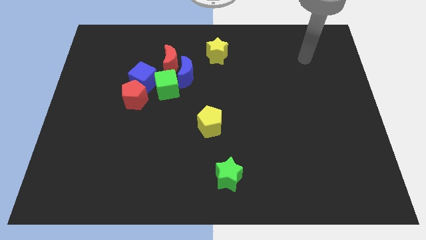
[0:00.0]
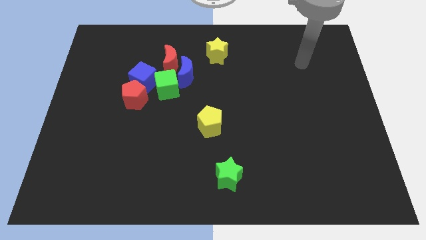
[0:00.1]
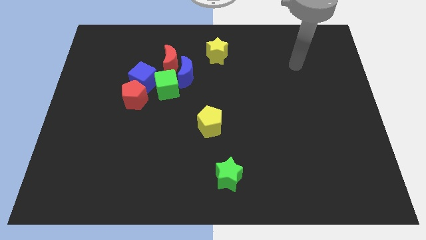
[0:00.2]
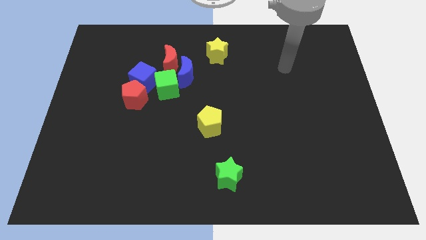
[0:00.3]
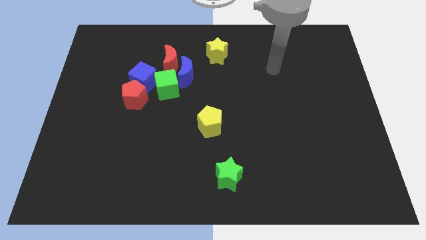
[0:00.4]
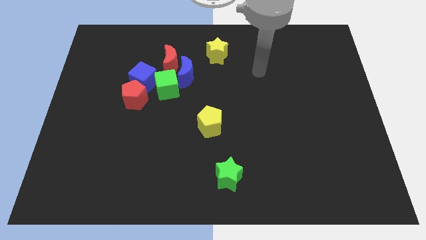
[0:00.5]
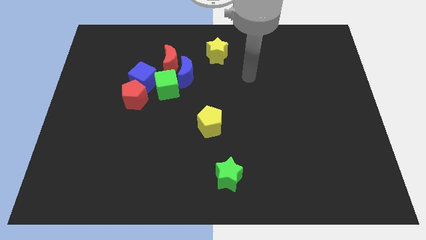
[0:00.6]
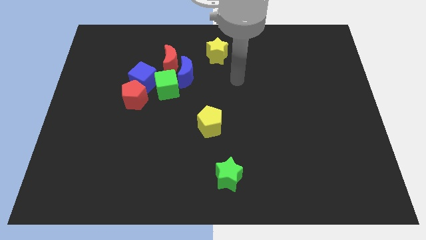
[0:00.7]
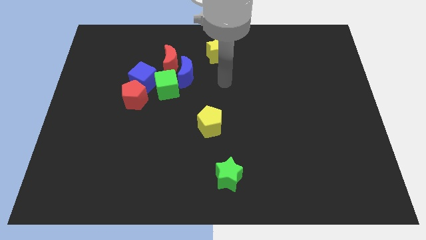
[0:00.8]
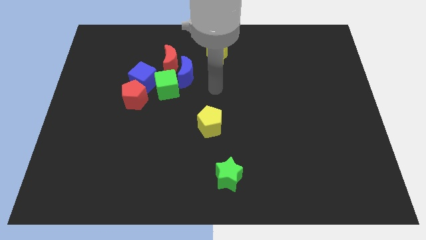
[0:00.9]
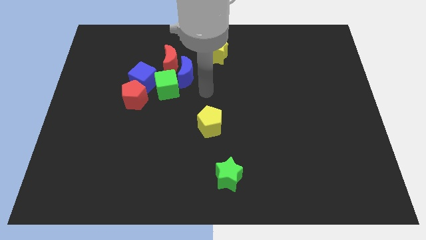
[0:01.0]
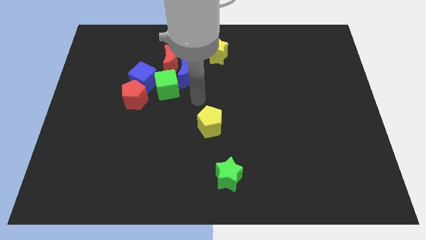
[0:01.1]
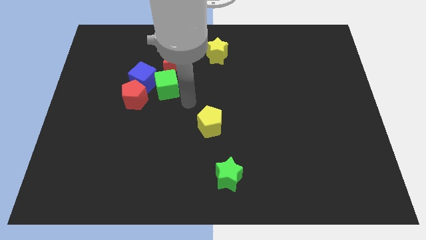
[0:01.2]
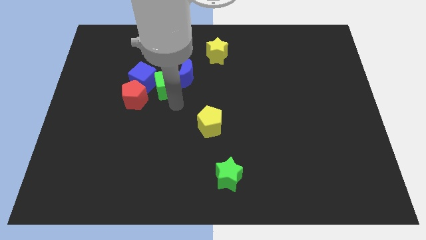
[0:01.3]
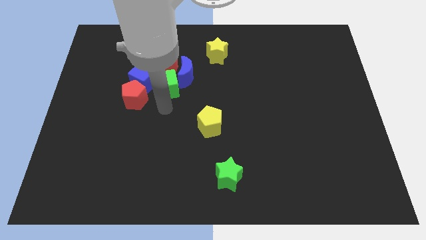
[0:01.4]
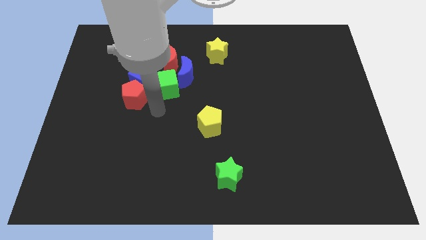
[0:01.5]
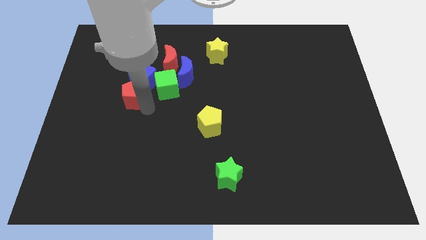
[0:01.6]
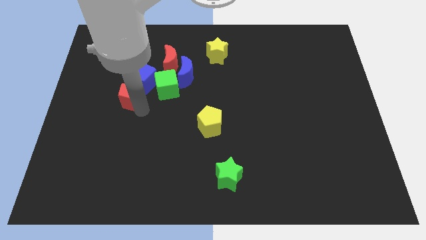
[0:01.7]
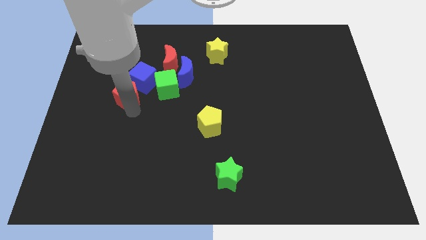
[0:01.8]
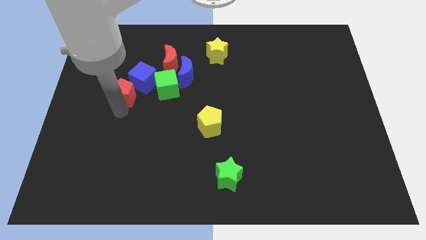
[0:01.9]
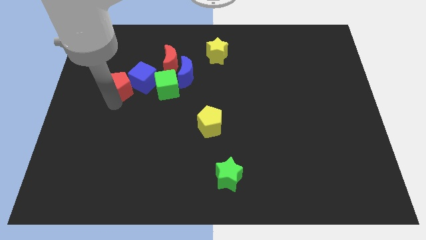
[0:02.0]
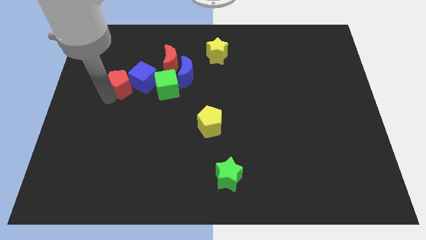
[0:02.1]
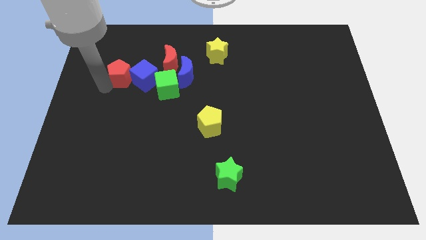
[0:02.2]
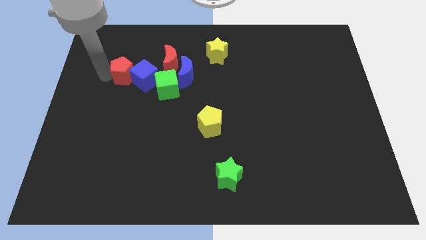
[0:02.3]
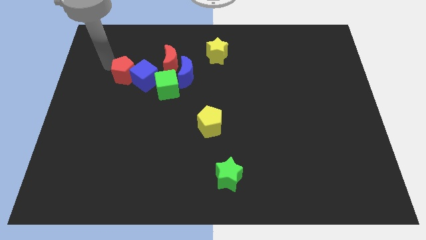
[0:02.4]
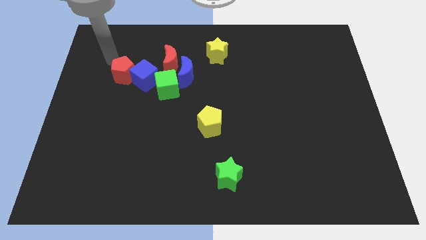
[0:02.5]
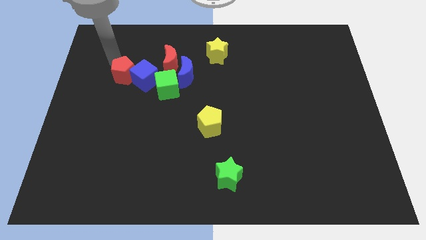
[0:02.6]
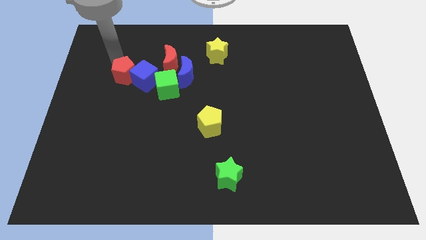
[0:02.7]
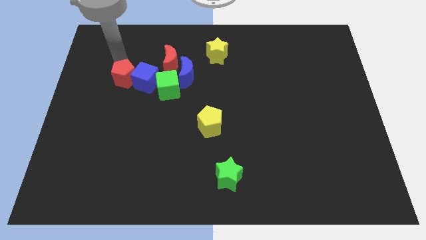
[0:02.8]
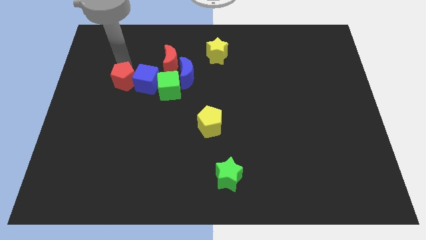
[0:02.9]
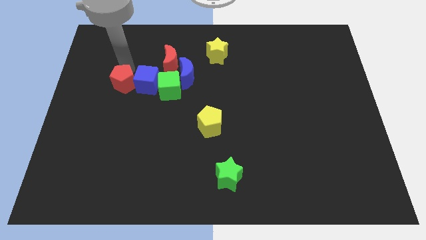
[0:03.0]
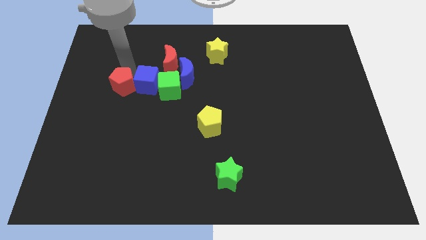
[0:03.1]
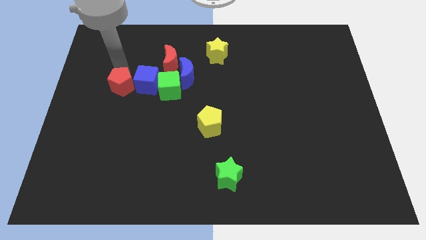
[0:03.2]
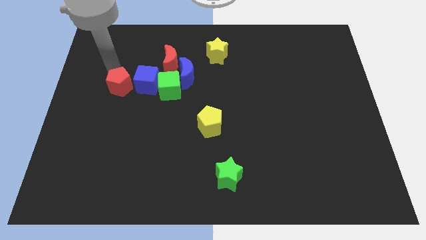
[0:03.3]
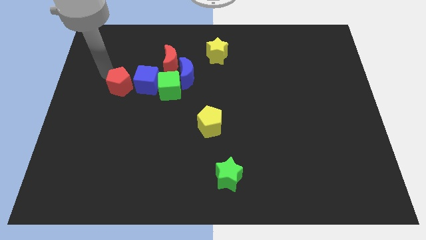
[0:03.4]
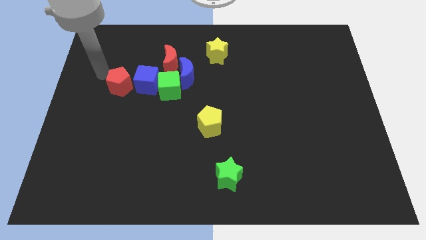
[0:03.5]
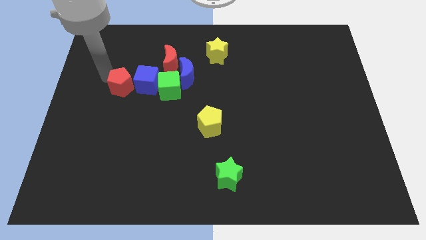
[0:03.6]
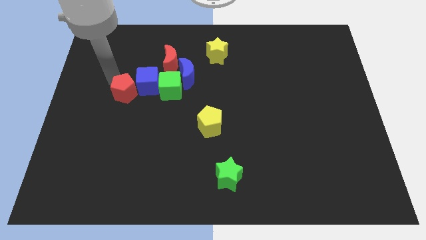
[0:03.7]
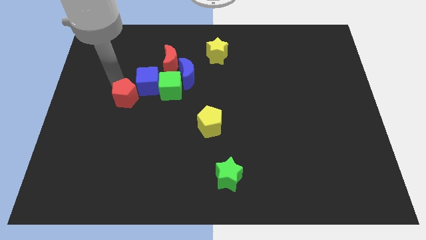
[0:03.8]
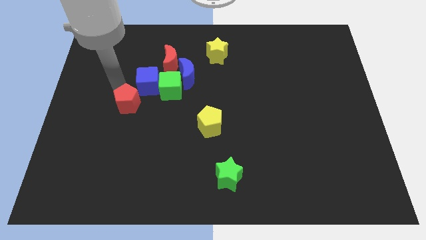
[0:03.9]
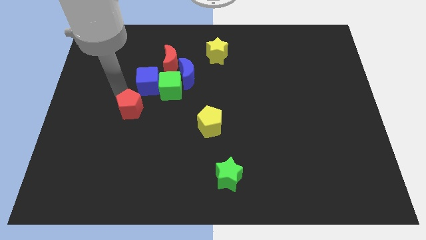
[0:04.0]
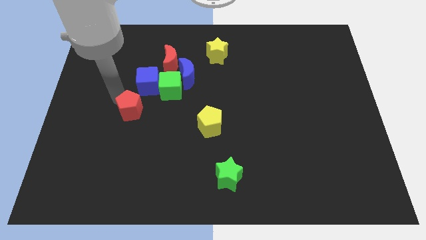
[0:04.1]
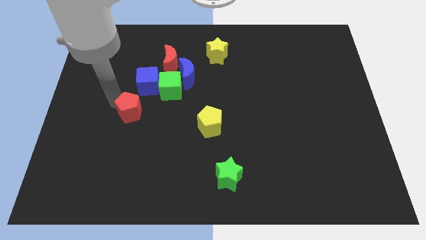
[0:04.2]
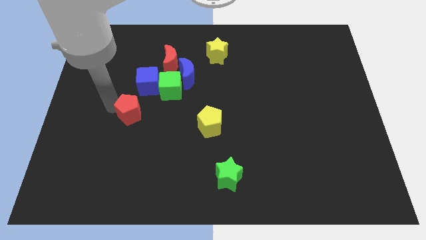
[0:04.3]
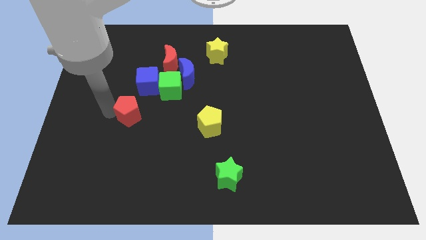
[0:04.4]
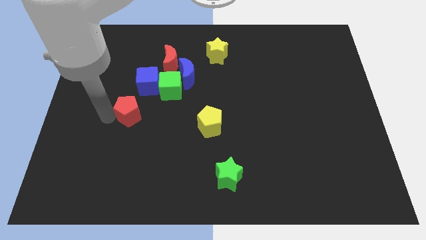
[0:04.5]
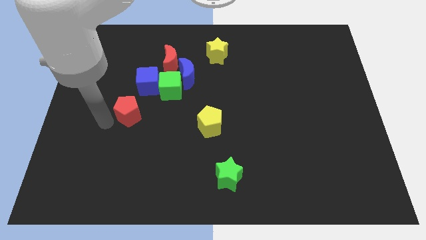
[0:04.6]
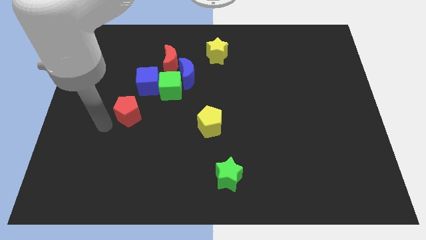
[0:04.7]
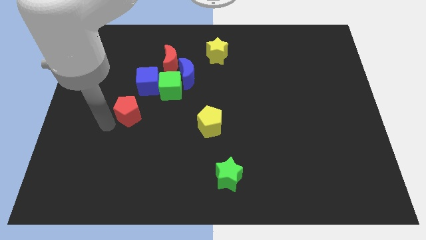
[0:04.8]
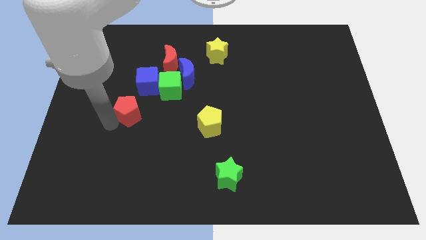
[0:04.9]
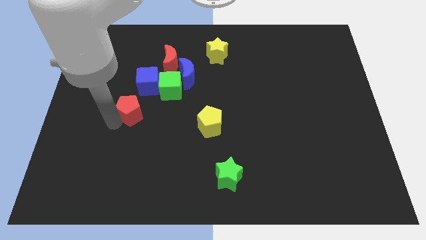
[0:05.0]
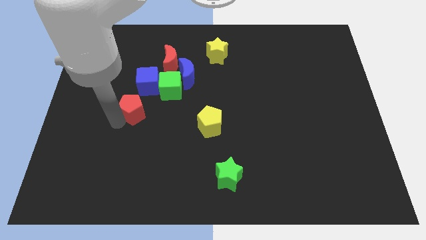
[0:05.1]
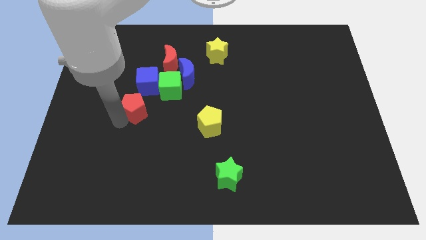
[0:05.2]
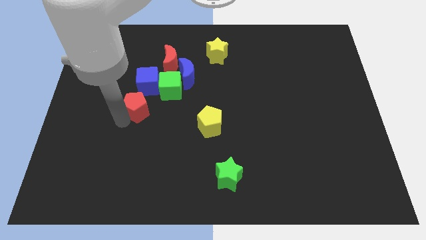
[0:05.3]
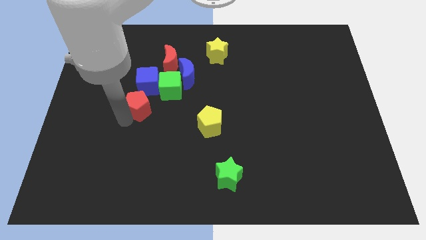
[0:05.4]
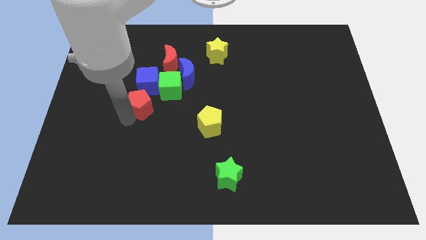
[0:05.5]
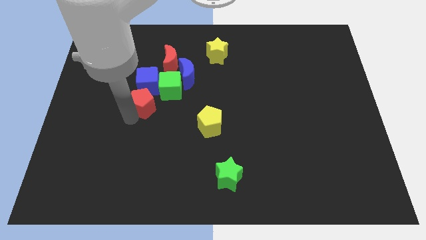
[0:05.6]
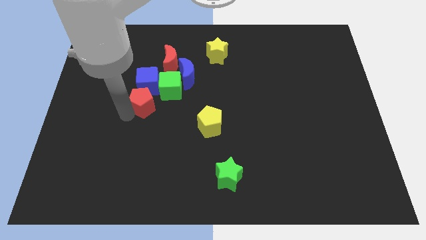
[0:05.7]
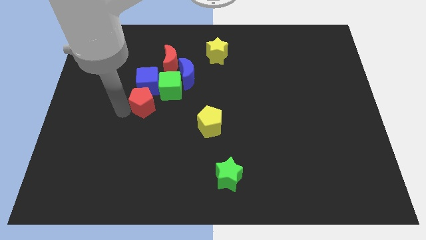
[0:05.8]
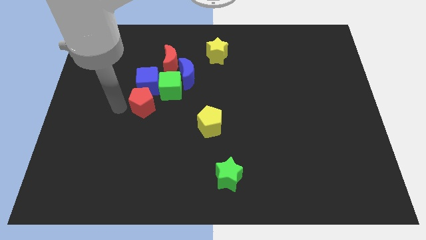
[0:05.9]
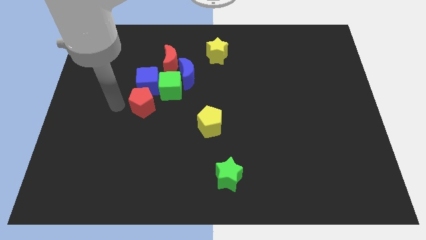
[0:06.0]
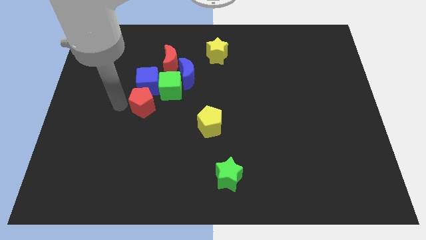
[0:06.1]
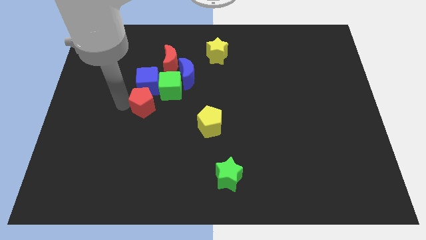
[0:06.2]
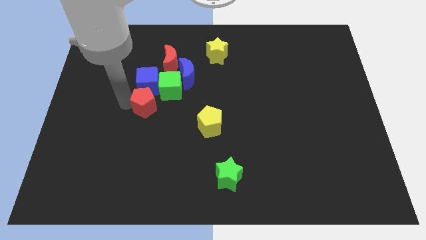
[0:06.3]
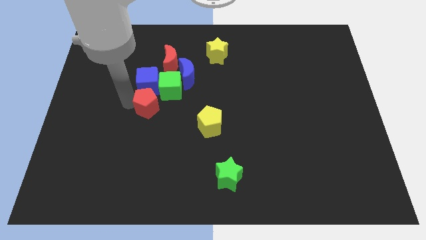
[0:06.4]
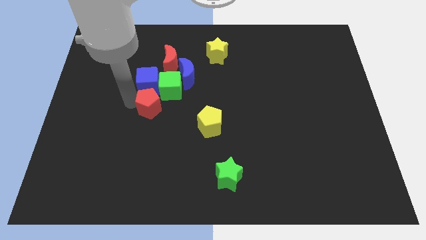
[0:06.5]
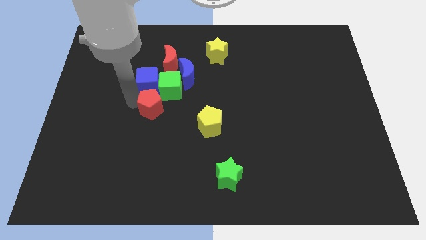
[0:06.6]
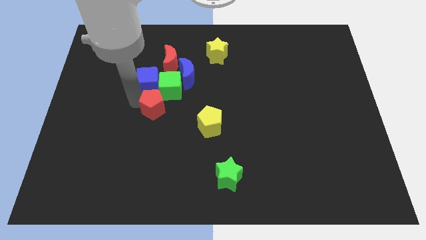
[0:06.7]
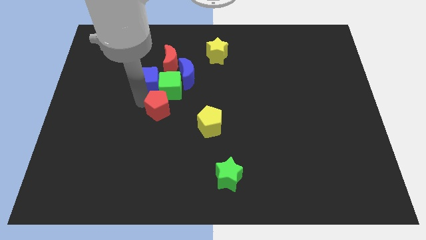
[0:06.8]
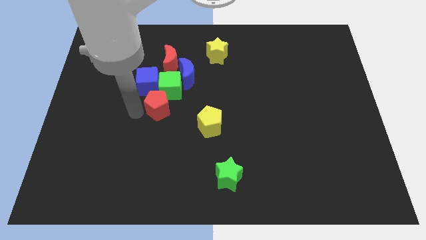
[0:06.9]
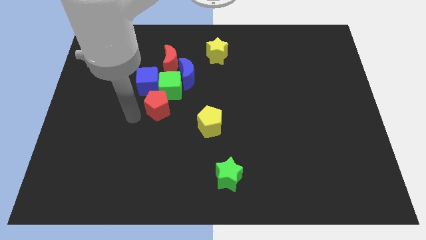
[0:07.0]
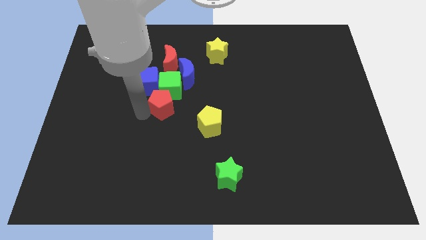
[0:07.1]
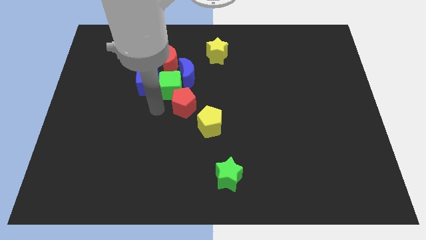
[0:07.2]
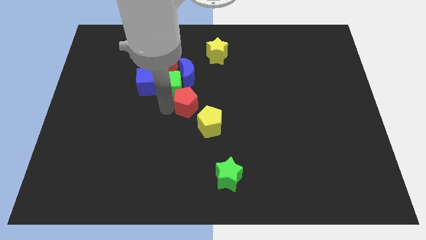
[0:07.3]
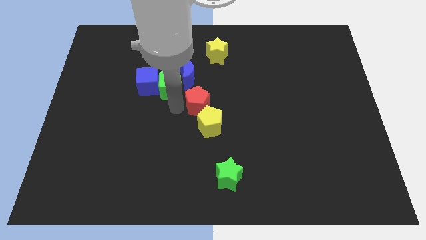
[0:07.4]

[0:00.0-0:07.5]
put the red pentagon right of the green cube
